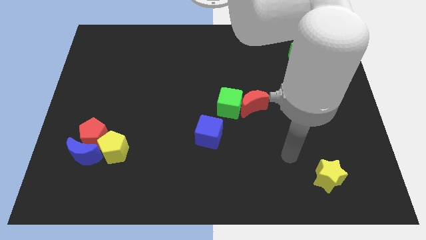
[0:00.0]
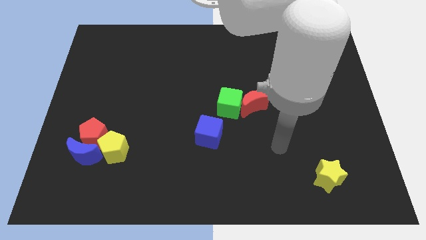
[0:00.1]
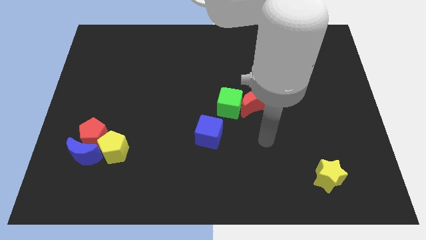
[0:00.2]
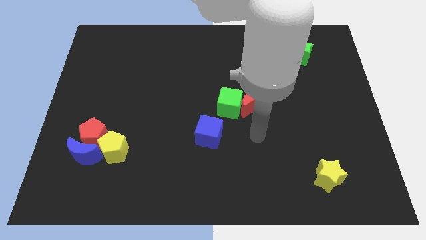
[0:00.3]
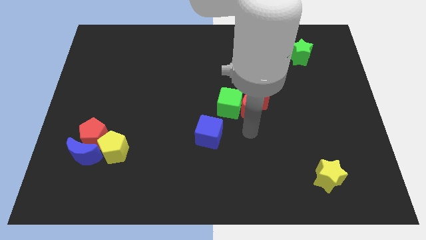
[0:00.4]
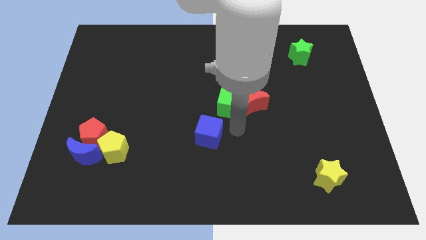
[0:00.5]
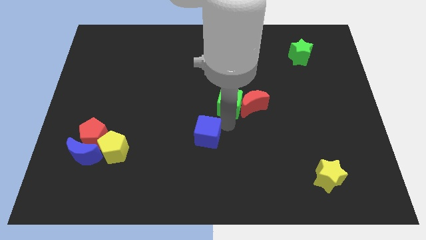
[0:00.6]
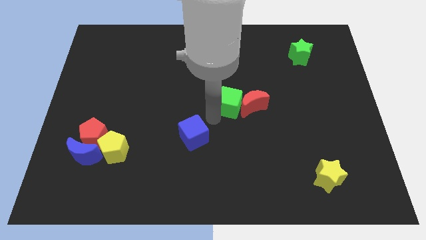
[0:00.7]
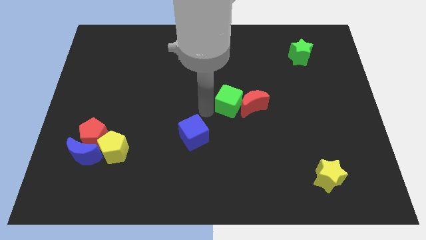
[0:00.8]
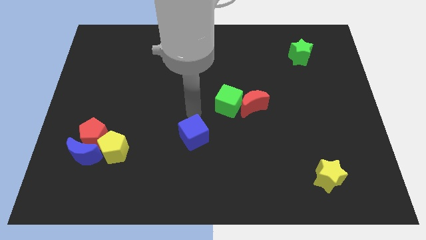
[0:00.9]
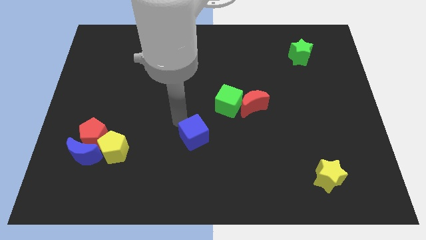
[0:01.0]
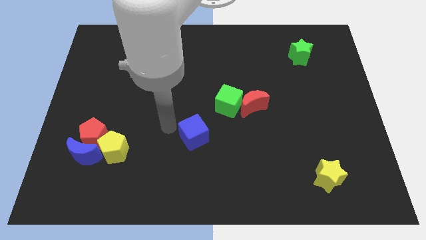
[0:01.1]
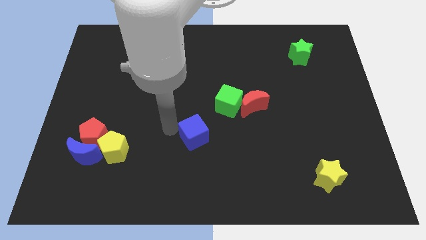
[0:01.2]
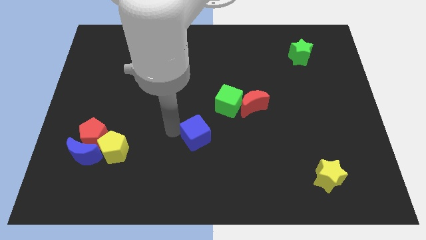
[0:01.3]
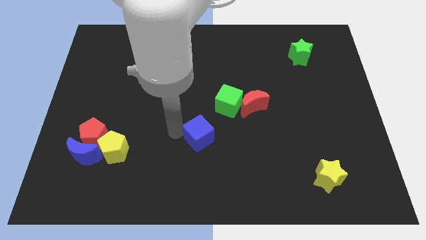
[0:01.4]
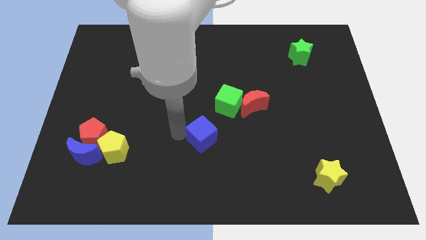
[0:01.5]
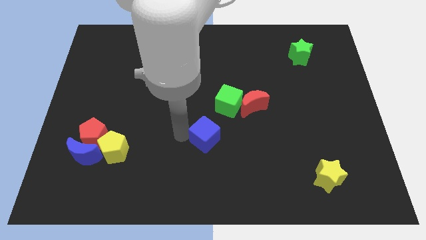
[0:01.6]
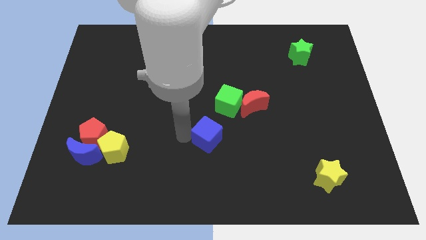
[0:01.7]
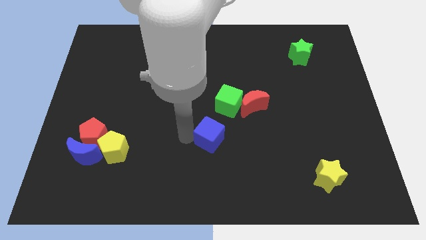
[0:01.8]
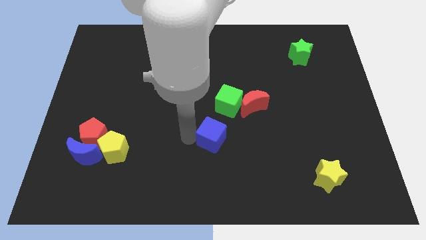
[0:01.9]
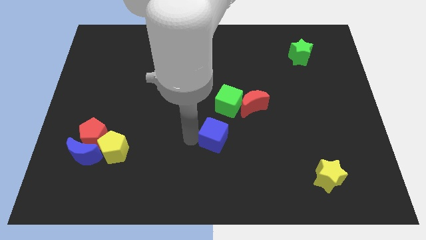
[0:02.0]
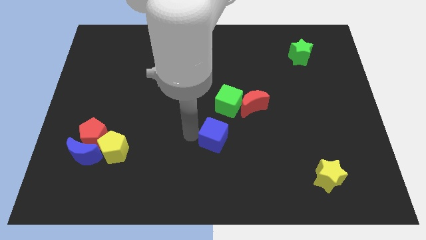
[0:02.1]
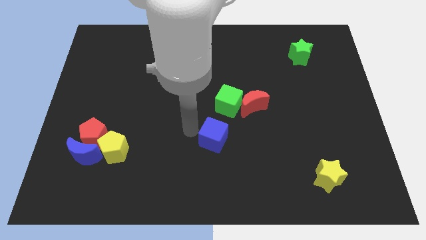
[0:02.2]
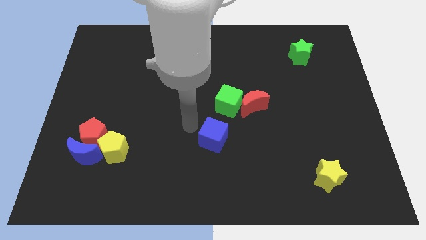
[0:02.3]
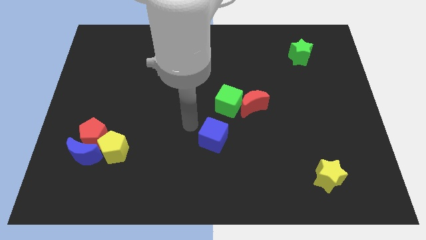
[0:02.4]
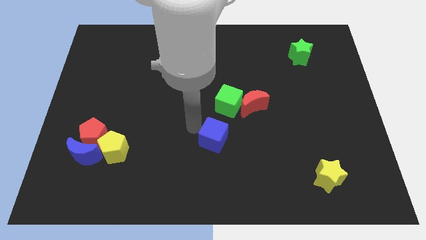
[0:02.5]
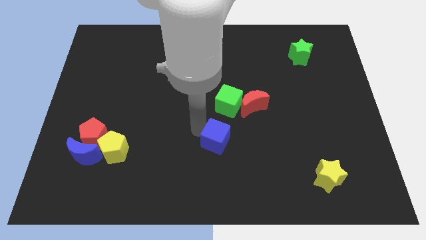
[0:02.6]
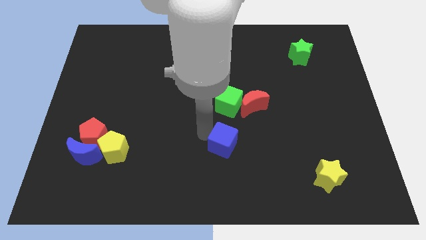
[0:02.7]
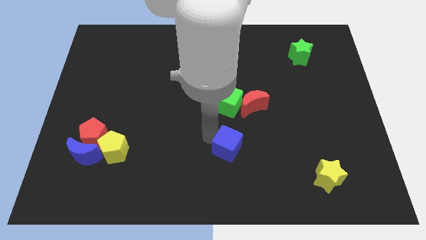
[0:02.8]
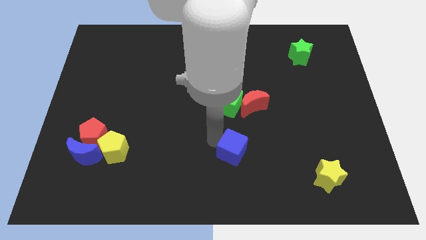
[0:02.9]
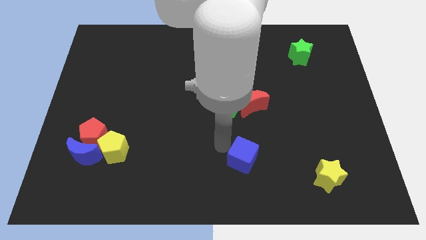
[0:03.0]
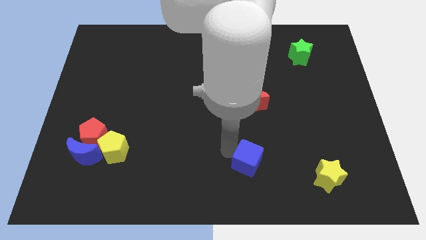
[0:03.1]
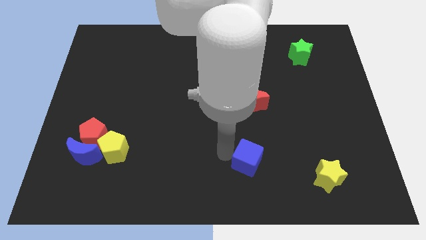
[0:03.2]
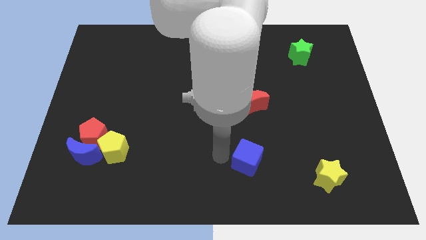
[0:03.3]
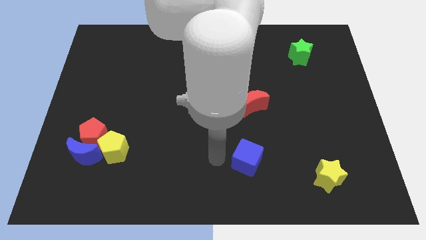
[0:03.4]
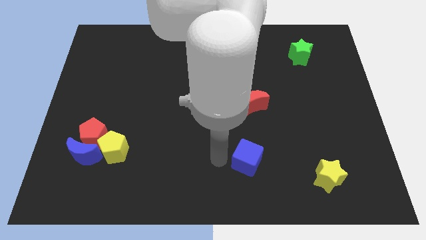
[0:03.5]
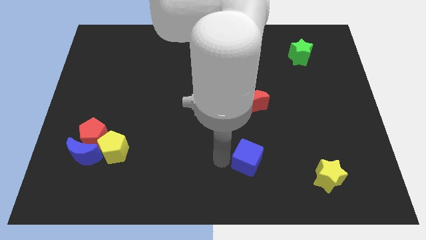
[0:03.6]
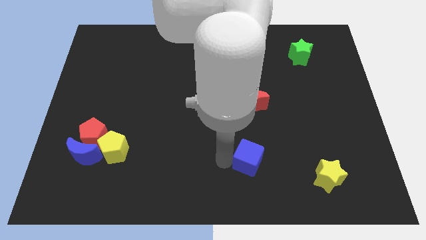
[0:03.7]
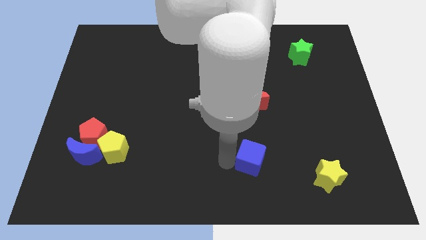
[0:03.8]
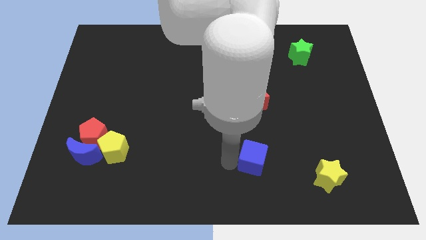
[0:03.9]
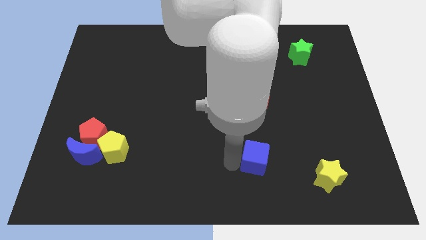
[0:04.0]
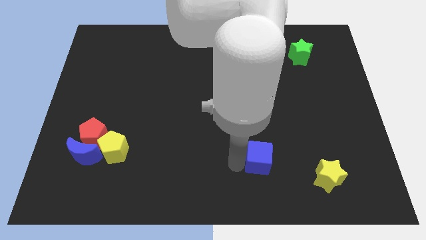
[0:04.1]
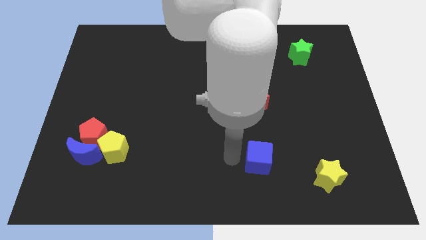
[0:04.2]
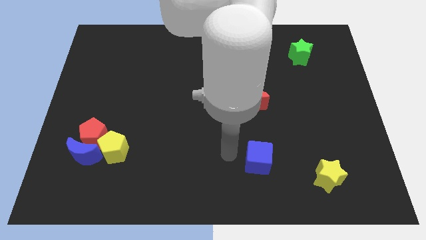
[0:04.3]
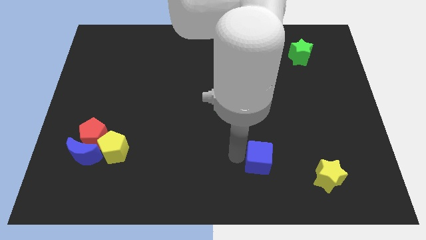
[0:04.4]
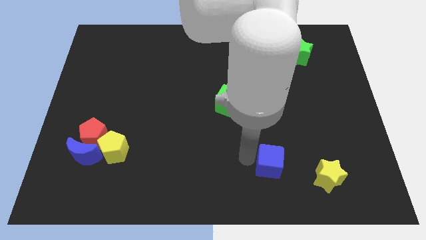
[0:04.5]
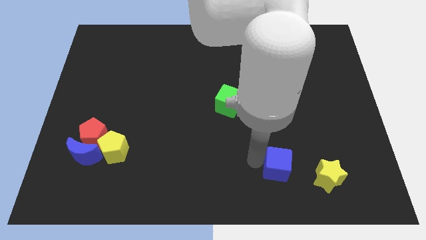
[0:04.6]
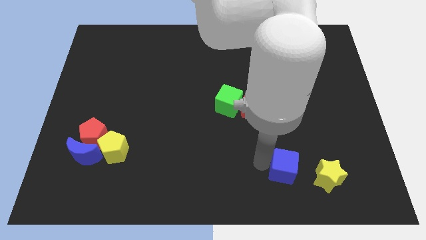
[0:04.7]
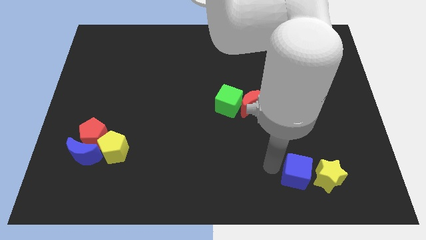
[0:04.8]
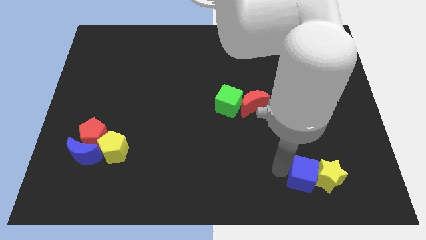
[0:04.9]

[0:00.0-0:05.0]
push the blue cube next to the yellow star

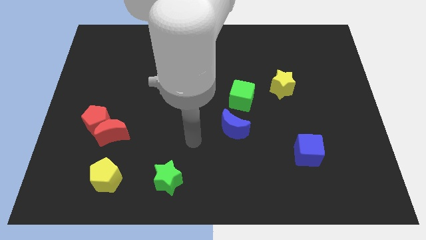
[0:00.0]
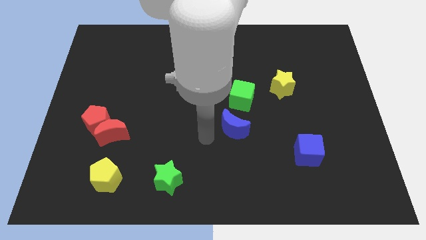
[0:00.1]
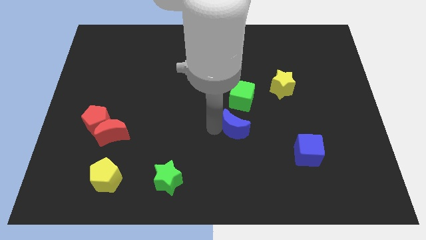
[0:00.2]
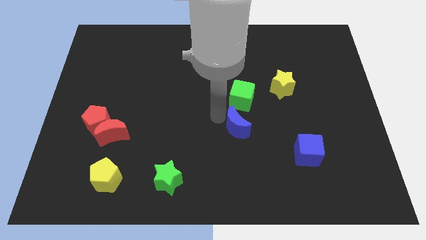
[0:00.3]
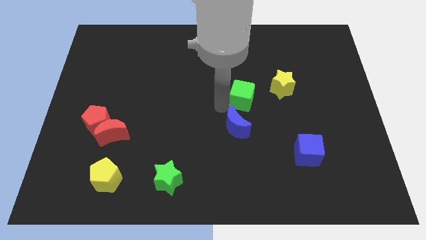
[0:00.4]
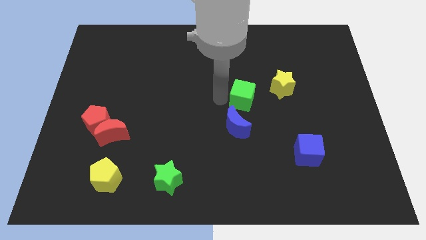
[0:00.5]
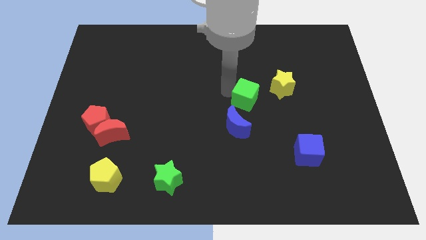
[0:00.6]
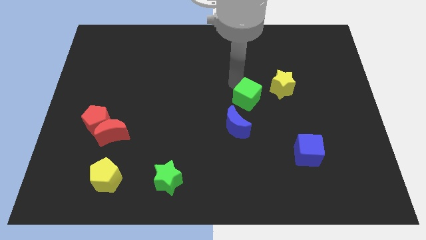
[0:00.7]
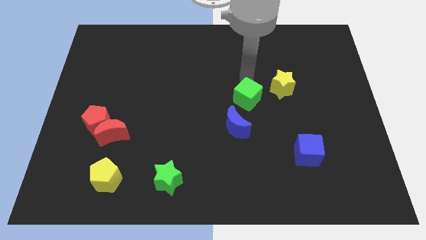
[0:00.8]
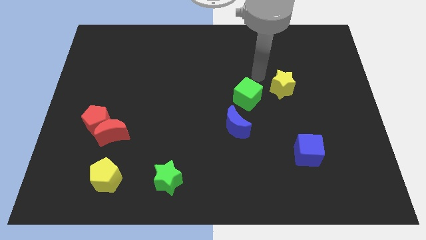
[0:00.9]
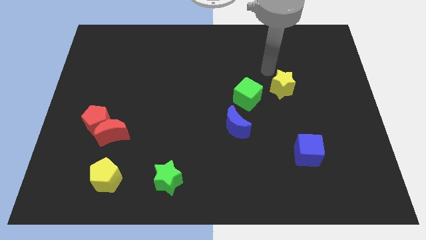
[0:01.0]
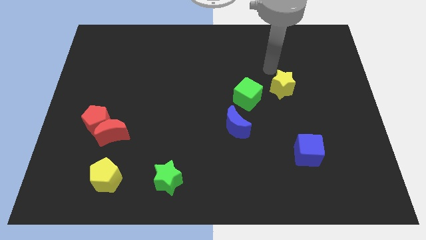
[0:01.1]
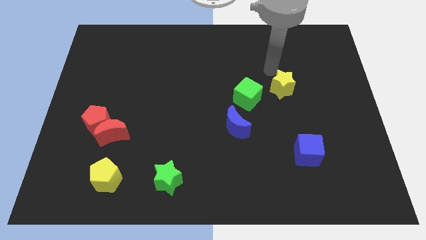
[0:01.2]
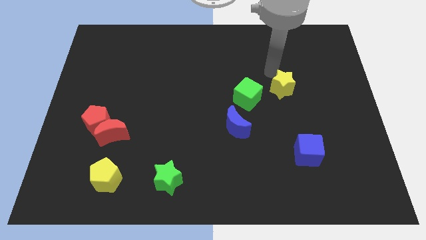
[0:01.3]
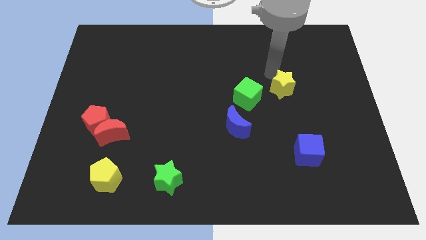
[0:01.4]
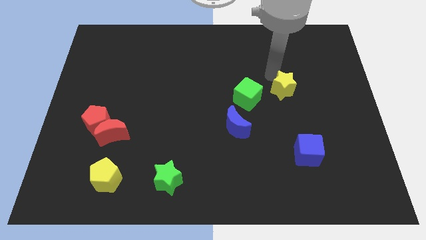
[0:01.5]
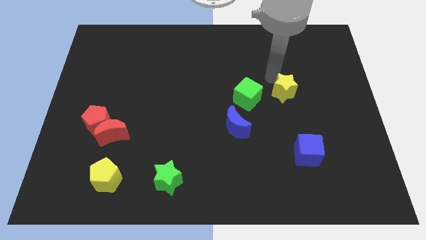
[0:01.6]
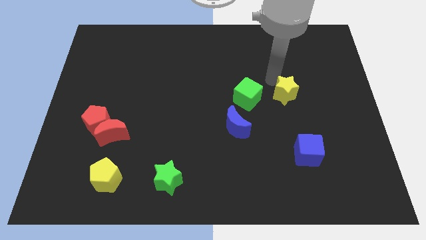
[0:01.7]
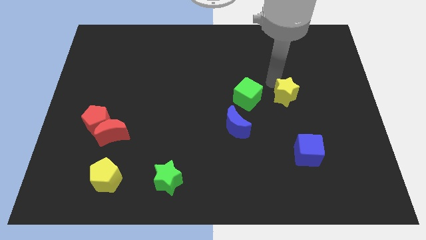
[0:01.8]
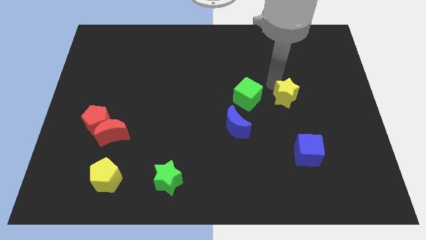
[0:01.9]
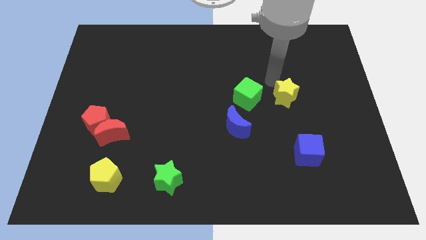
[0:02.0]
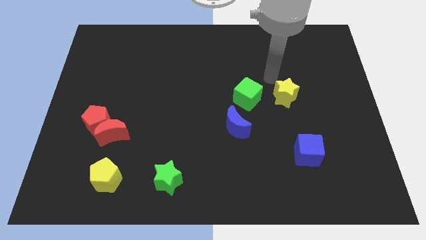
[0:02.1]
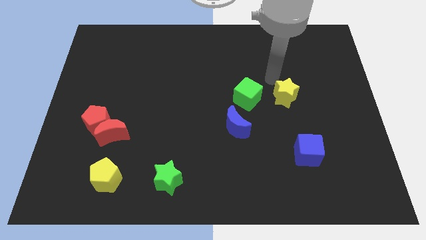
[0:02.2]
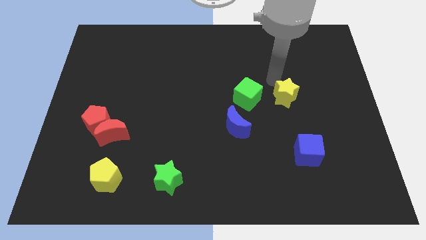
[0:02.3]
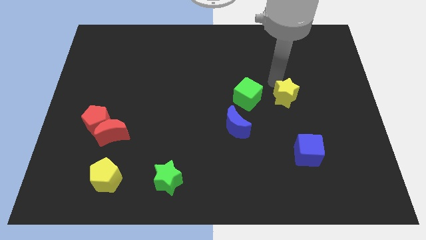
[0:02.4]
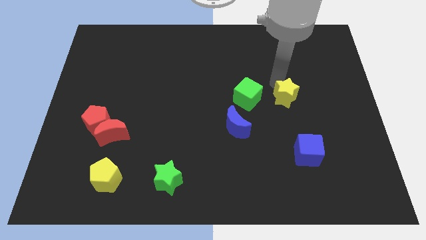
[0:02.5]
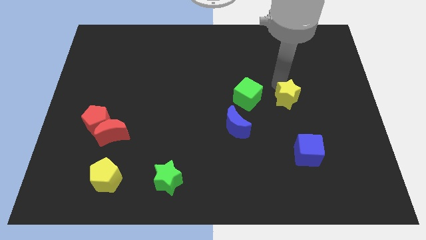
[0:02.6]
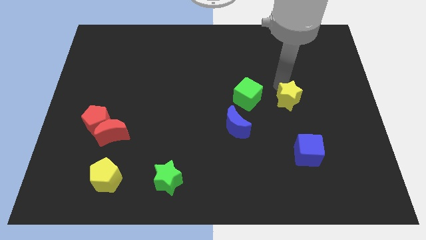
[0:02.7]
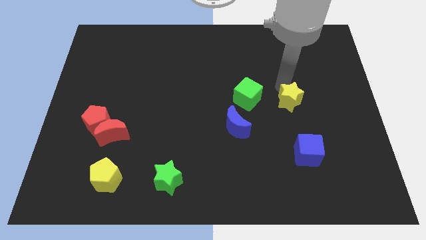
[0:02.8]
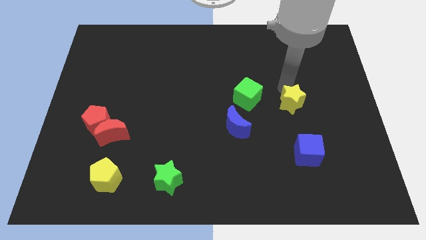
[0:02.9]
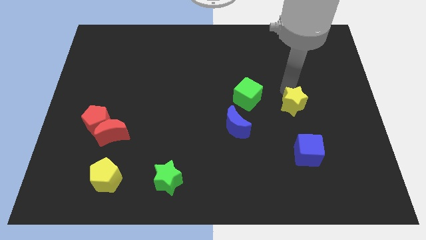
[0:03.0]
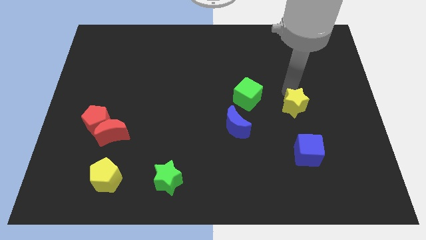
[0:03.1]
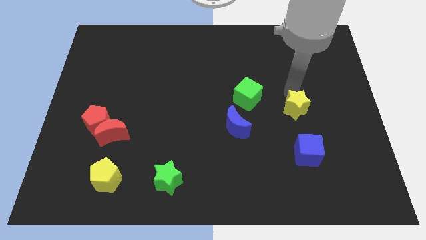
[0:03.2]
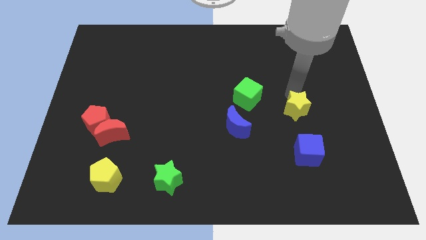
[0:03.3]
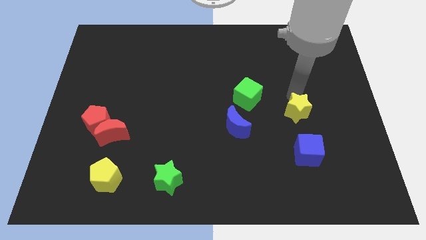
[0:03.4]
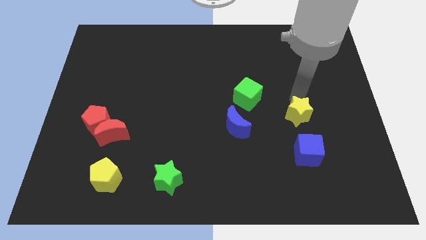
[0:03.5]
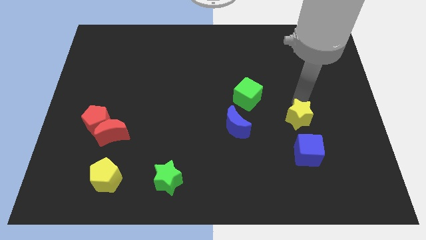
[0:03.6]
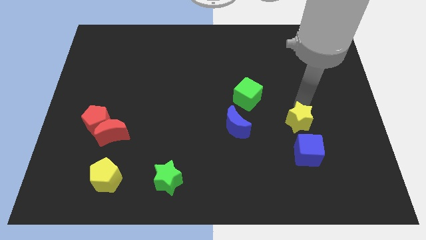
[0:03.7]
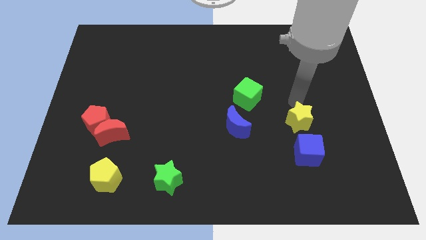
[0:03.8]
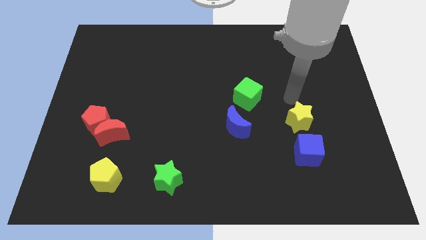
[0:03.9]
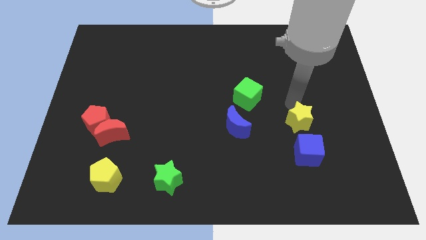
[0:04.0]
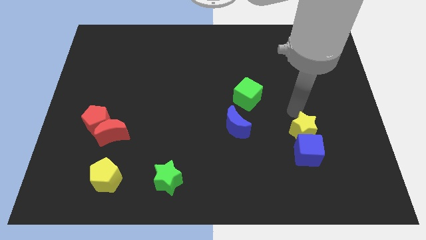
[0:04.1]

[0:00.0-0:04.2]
slide the yellow star next to the blue cube
